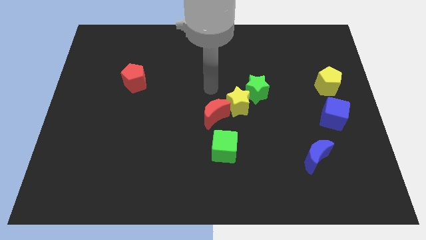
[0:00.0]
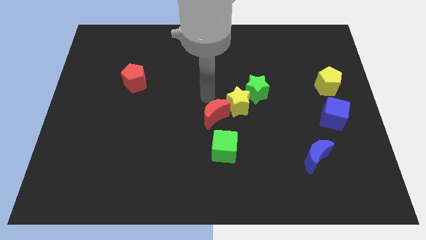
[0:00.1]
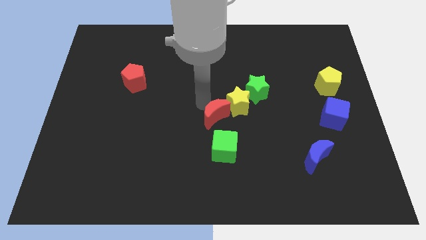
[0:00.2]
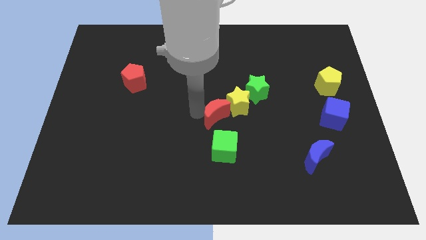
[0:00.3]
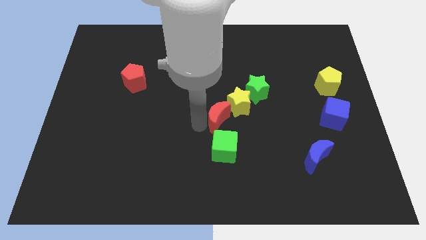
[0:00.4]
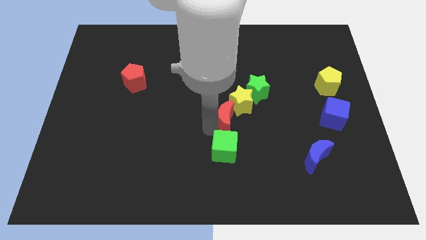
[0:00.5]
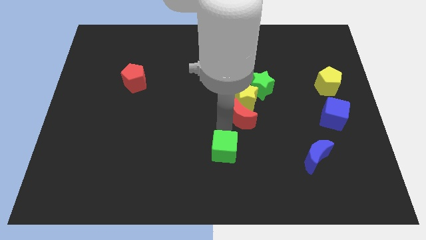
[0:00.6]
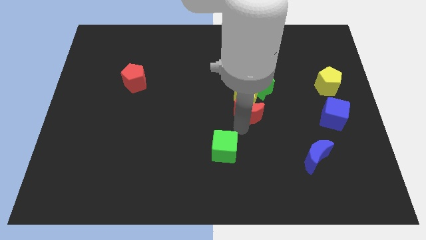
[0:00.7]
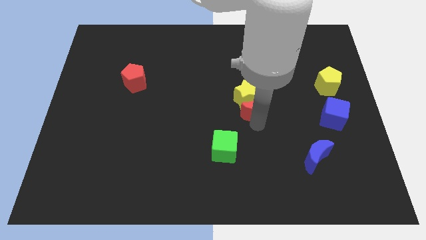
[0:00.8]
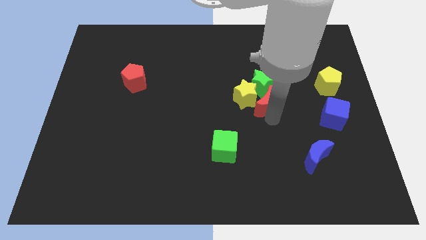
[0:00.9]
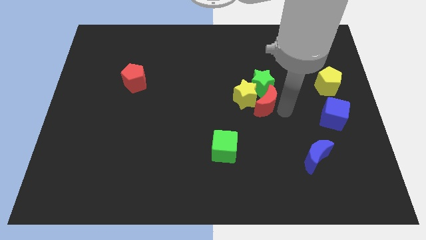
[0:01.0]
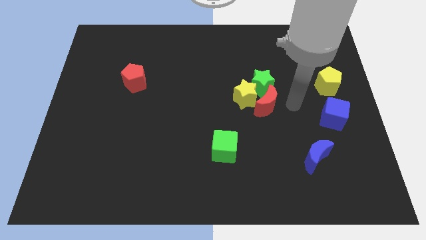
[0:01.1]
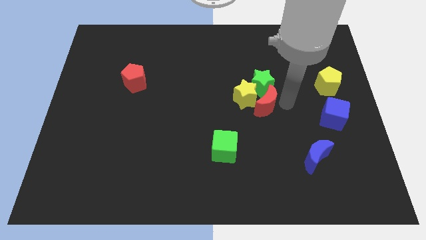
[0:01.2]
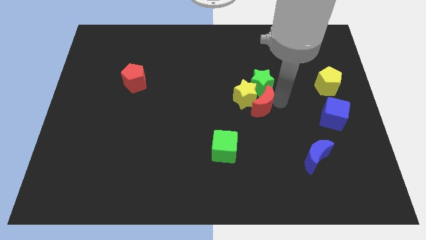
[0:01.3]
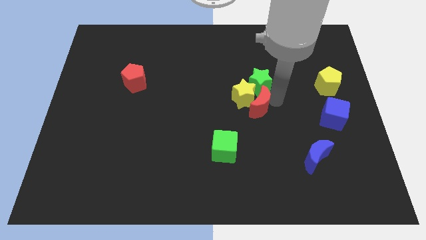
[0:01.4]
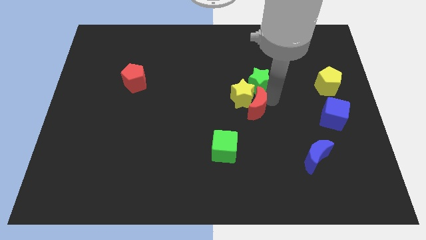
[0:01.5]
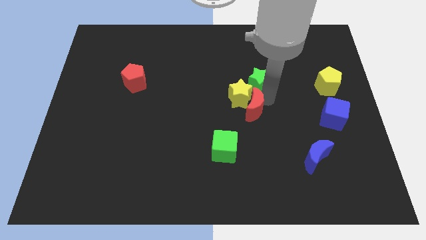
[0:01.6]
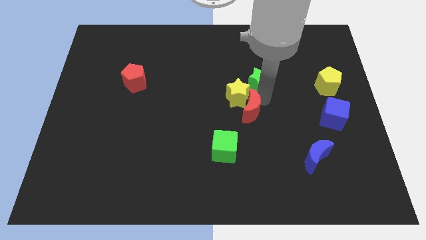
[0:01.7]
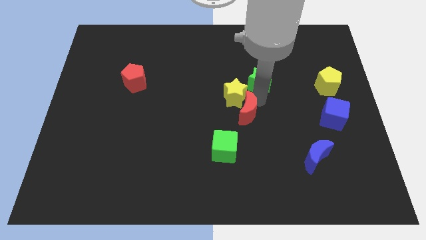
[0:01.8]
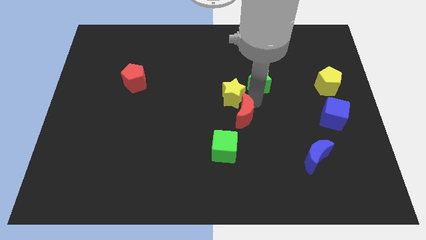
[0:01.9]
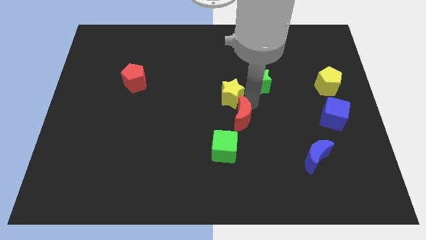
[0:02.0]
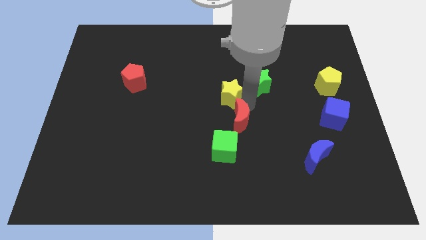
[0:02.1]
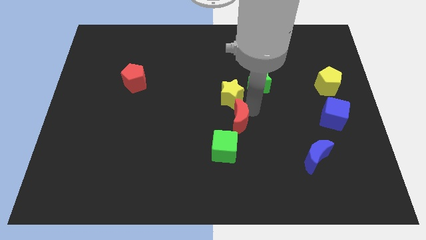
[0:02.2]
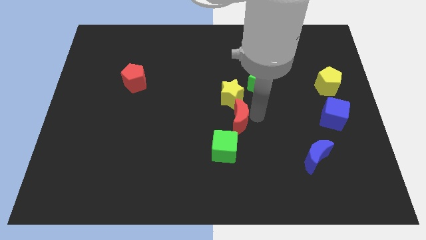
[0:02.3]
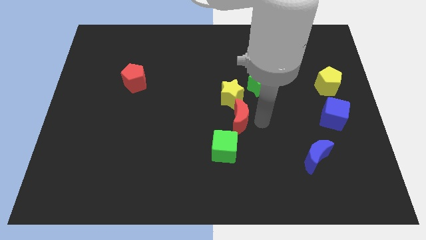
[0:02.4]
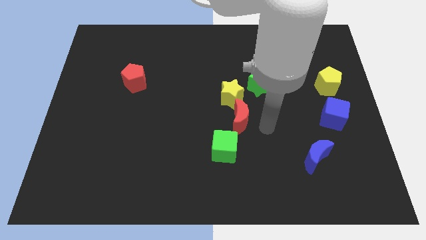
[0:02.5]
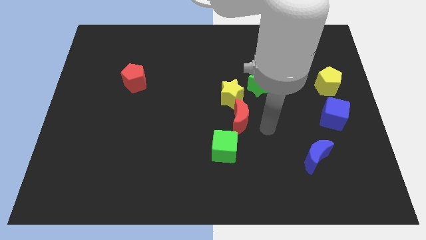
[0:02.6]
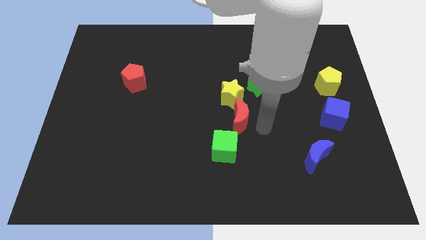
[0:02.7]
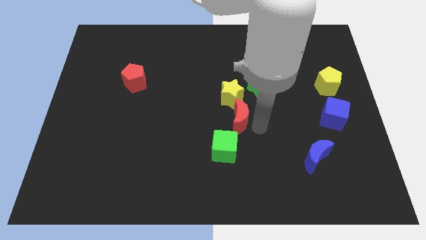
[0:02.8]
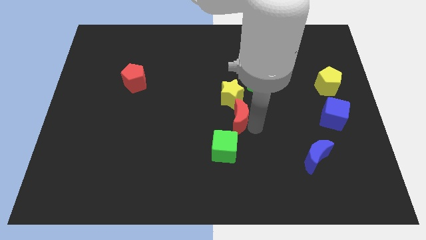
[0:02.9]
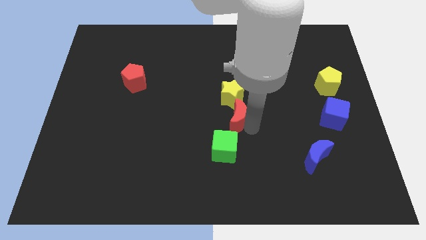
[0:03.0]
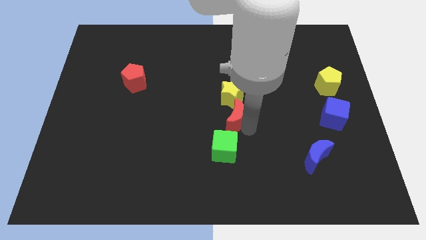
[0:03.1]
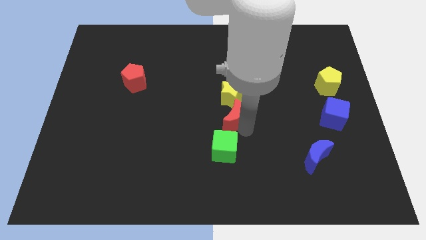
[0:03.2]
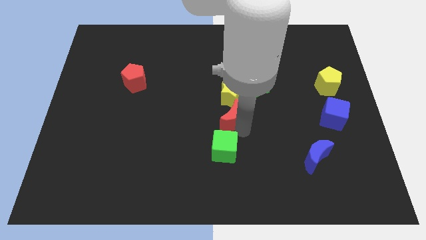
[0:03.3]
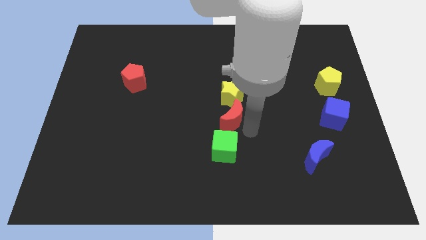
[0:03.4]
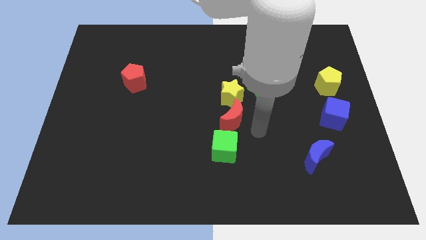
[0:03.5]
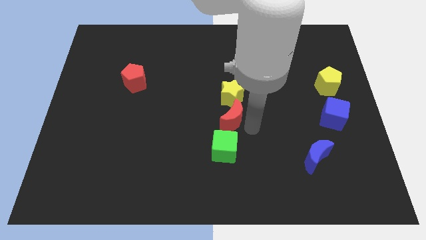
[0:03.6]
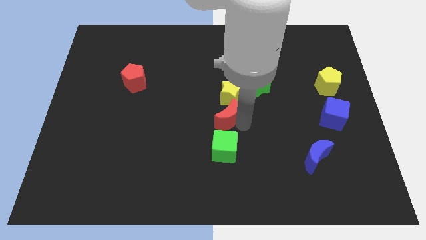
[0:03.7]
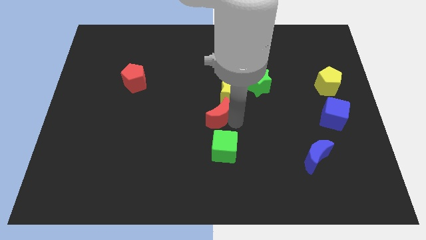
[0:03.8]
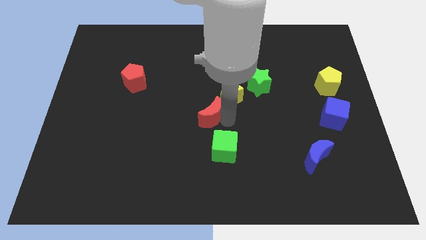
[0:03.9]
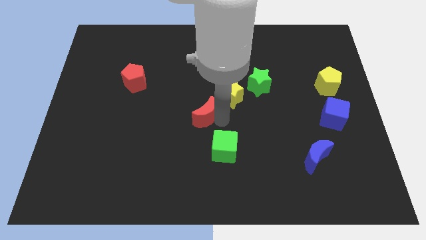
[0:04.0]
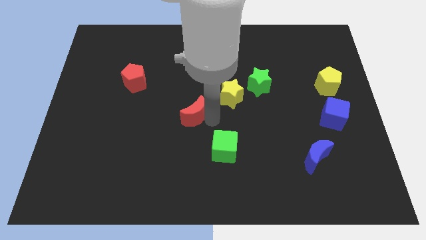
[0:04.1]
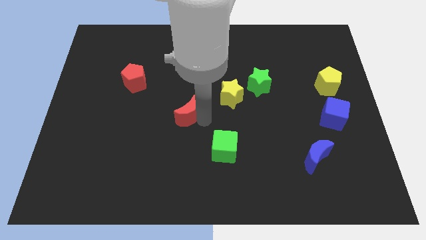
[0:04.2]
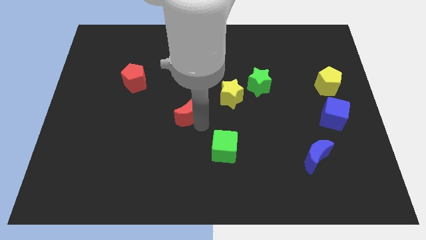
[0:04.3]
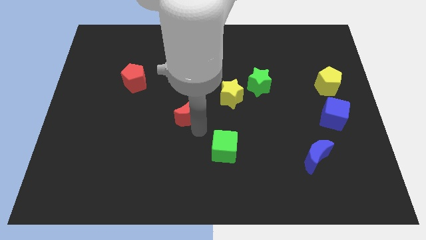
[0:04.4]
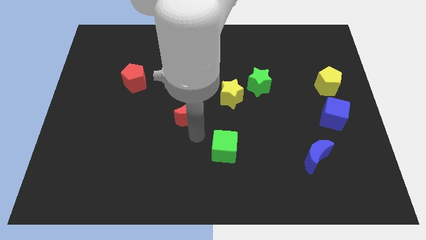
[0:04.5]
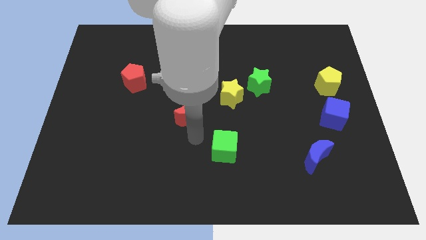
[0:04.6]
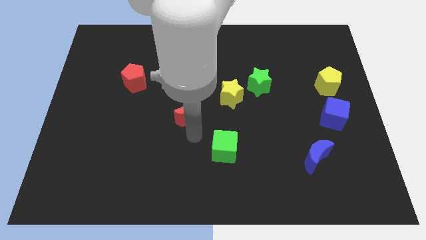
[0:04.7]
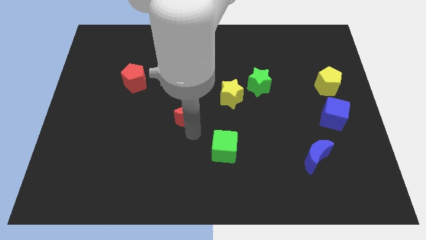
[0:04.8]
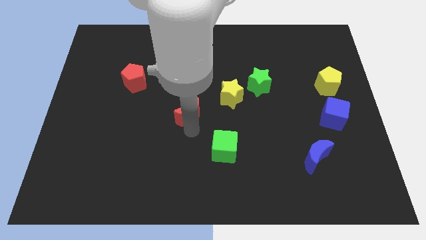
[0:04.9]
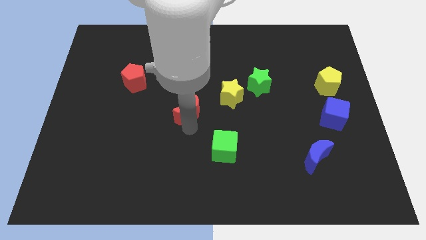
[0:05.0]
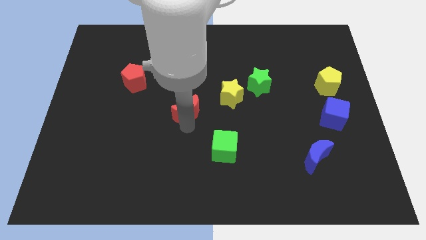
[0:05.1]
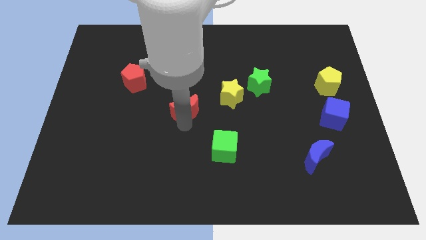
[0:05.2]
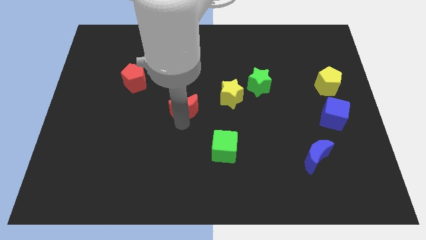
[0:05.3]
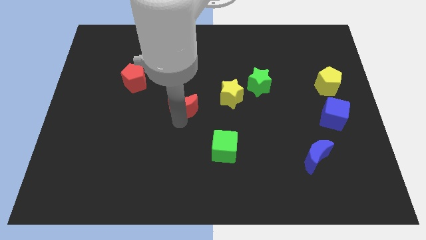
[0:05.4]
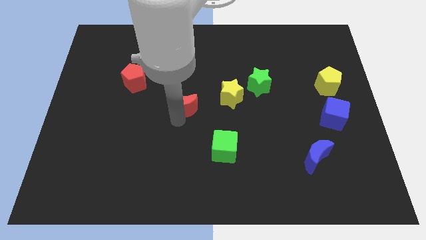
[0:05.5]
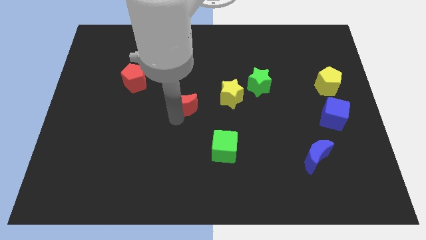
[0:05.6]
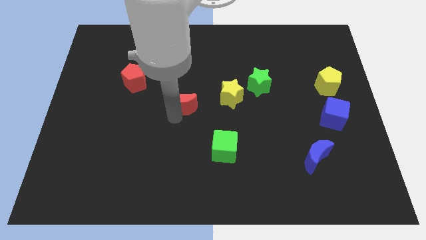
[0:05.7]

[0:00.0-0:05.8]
slightly slide the red moon up and left

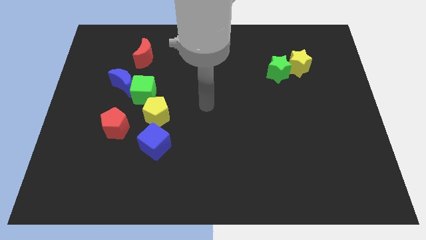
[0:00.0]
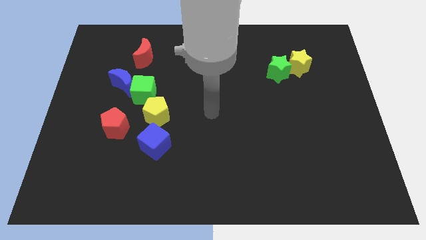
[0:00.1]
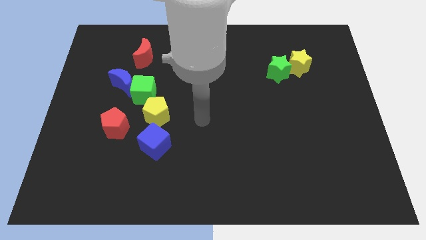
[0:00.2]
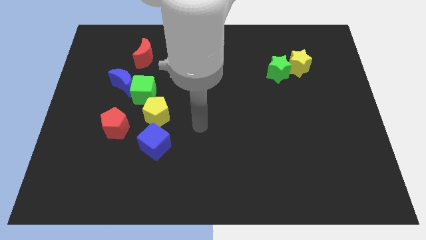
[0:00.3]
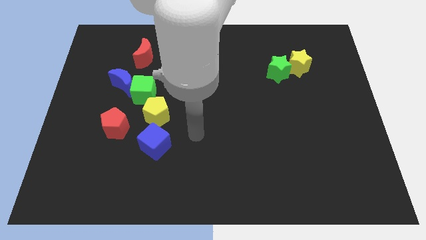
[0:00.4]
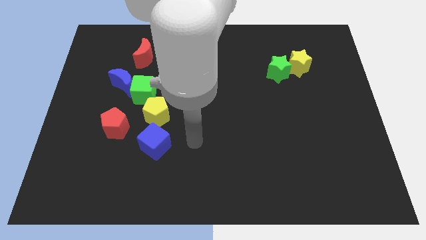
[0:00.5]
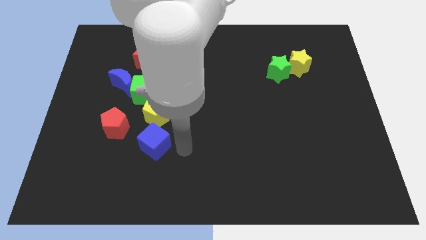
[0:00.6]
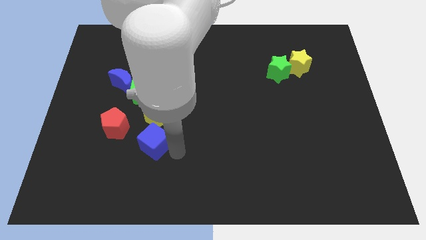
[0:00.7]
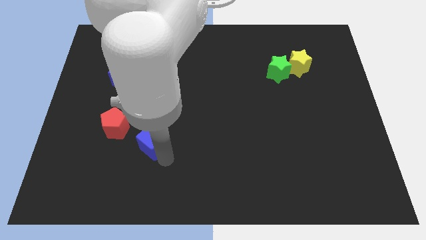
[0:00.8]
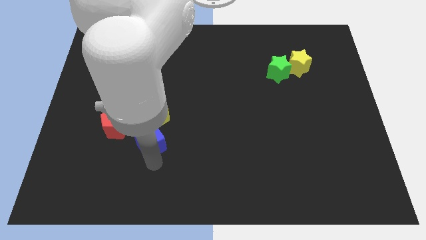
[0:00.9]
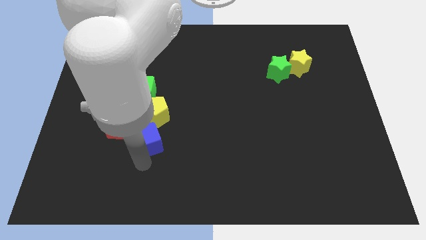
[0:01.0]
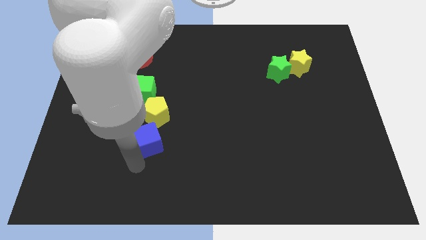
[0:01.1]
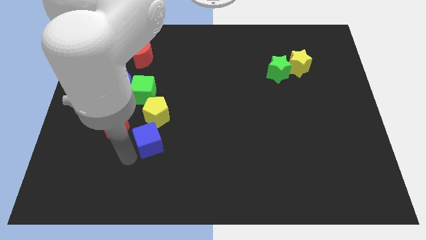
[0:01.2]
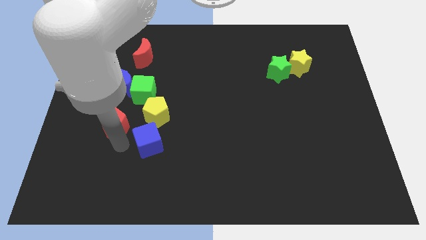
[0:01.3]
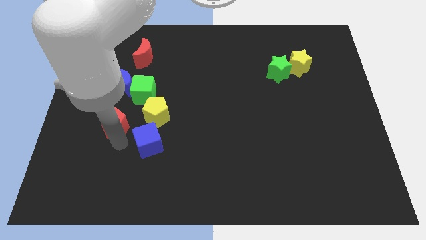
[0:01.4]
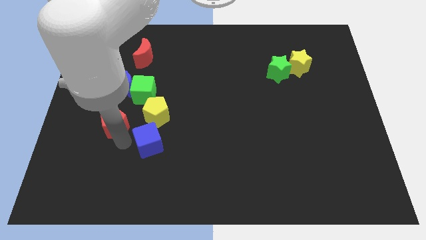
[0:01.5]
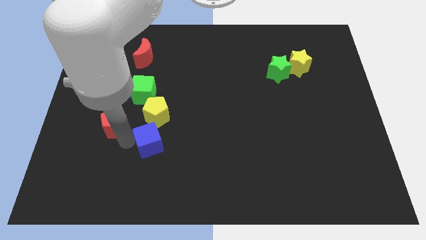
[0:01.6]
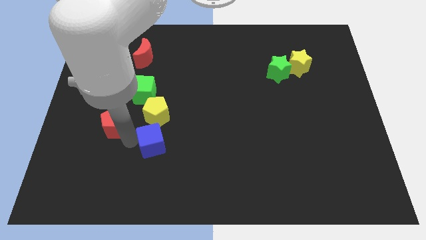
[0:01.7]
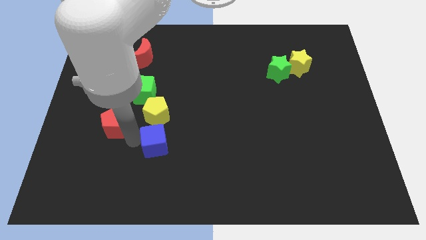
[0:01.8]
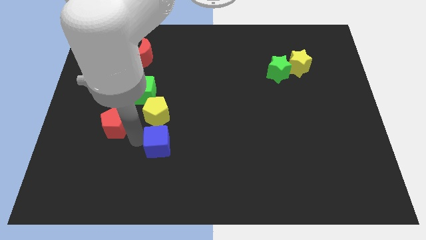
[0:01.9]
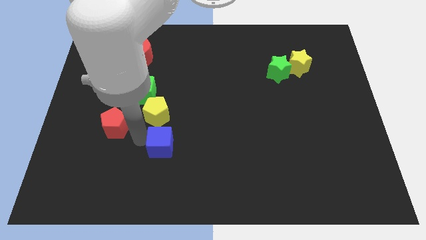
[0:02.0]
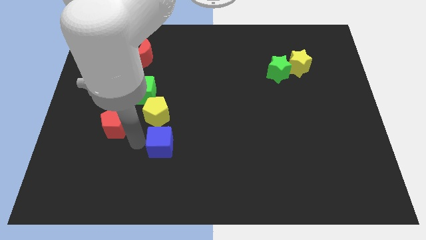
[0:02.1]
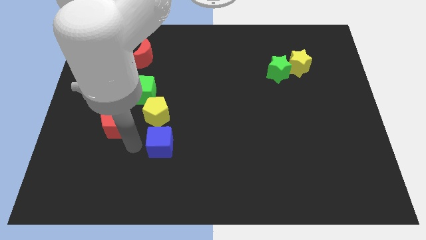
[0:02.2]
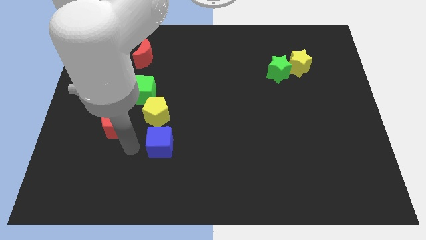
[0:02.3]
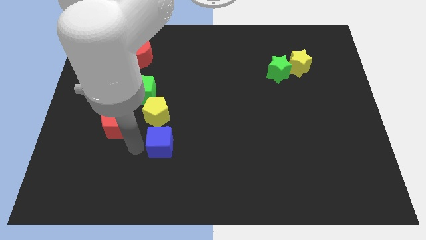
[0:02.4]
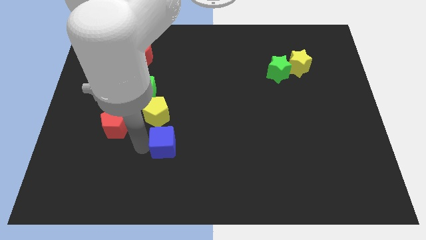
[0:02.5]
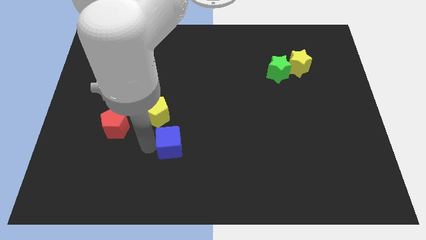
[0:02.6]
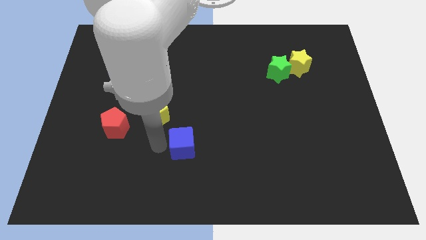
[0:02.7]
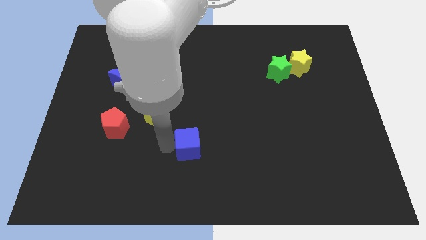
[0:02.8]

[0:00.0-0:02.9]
slide the blue cube somewhat to the right
